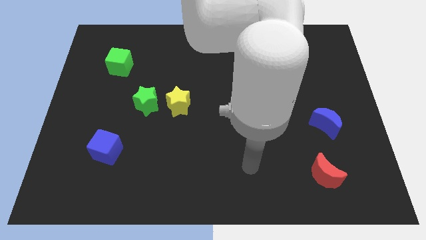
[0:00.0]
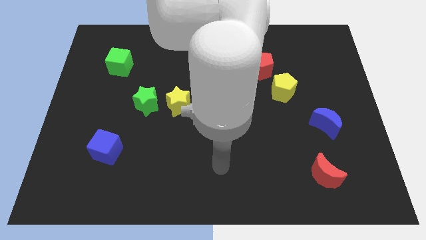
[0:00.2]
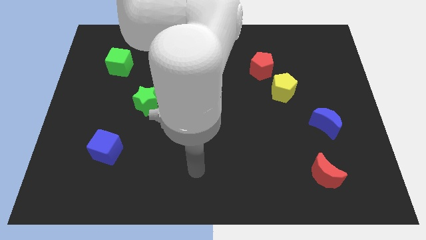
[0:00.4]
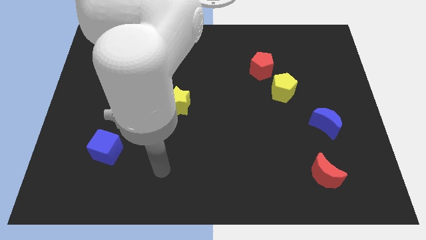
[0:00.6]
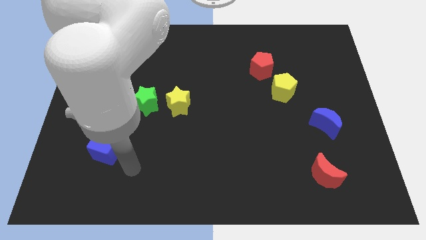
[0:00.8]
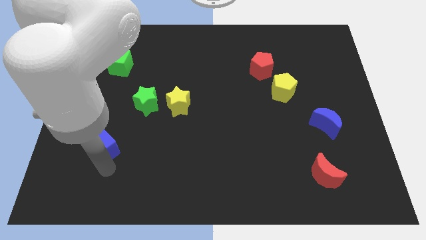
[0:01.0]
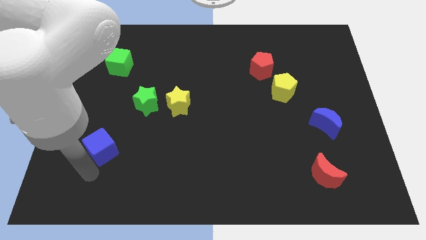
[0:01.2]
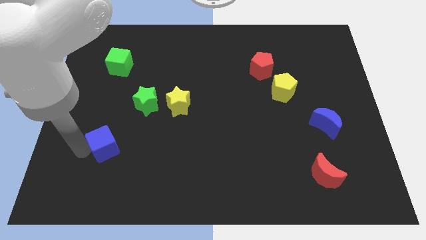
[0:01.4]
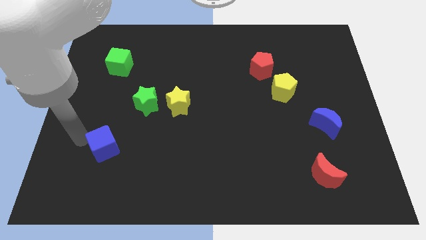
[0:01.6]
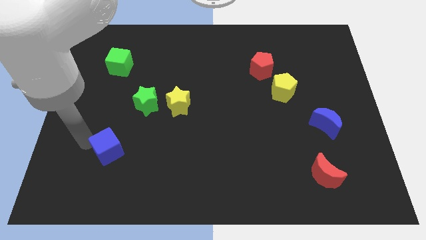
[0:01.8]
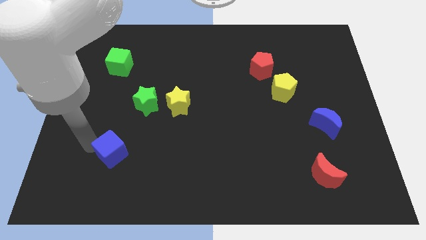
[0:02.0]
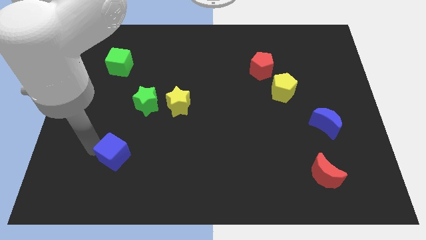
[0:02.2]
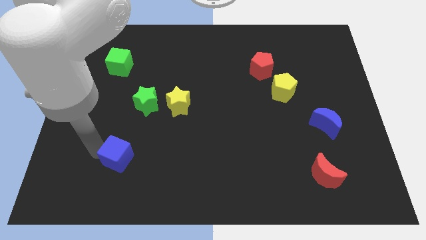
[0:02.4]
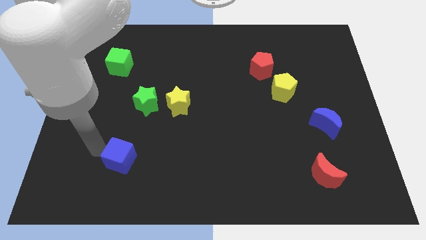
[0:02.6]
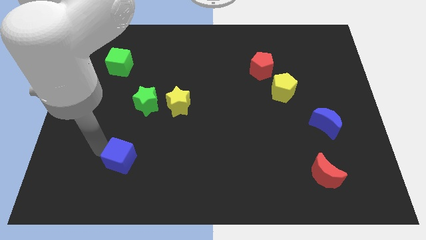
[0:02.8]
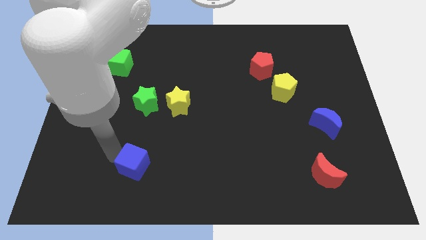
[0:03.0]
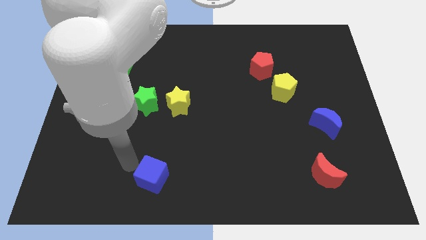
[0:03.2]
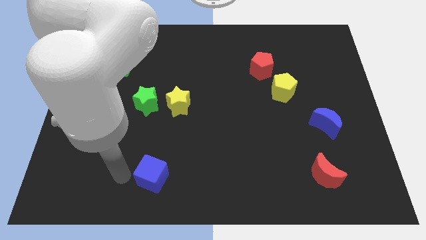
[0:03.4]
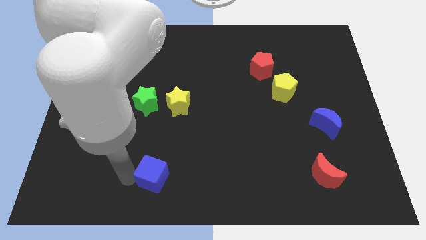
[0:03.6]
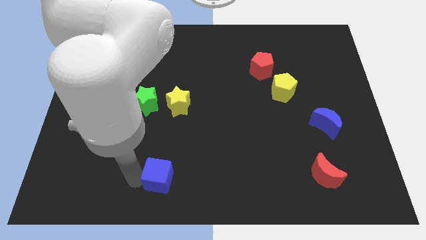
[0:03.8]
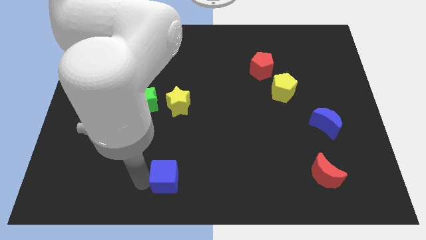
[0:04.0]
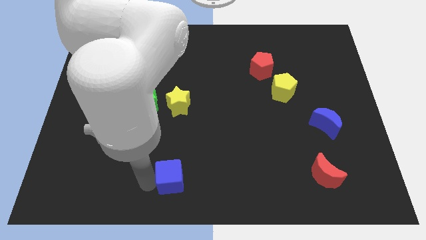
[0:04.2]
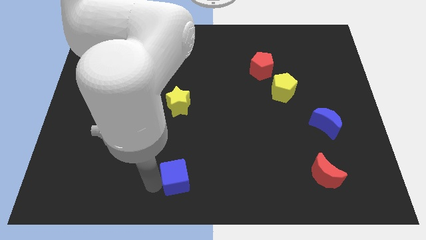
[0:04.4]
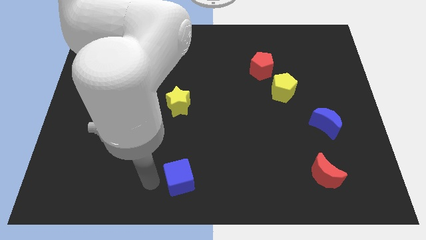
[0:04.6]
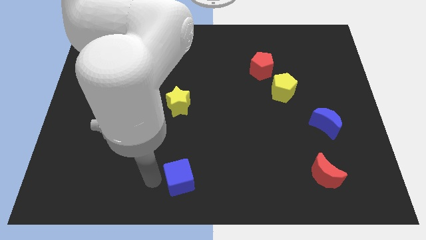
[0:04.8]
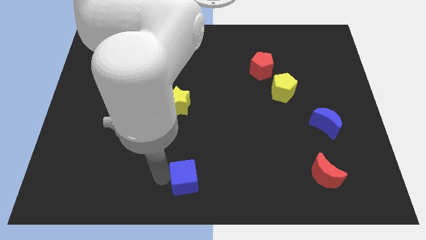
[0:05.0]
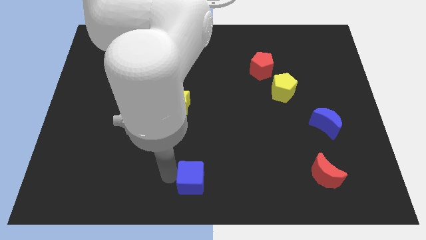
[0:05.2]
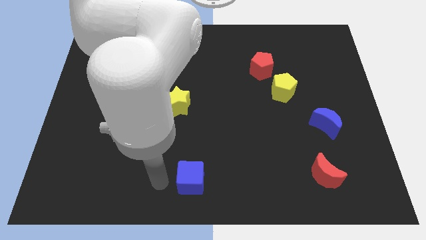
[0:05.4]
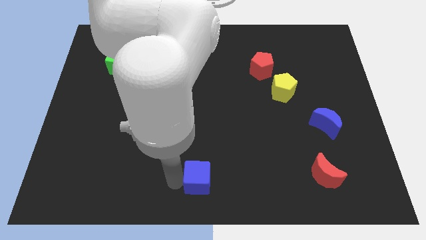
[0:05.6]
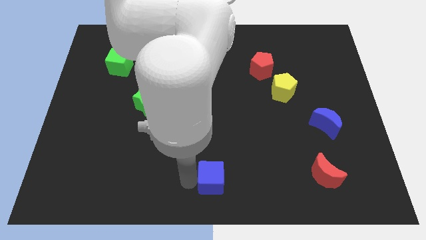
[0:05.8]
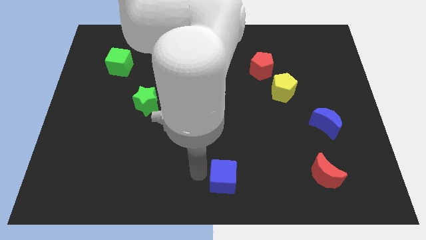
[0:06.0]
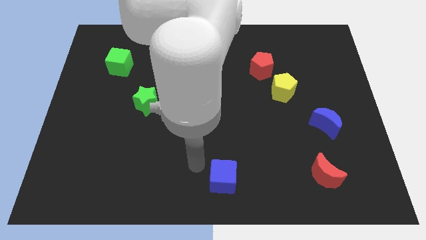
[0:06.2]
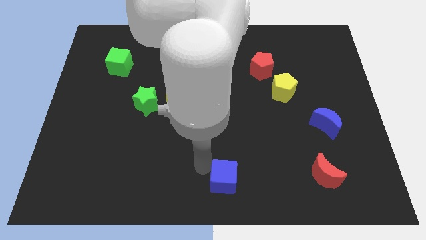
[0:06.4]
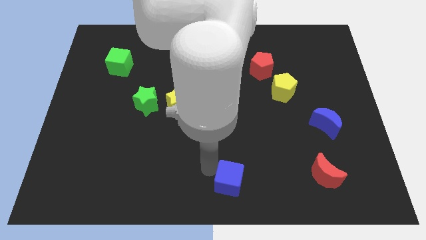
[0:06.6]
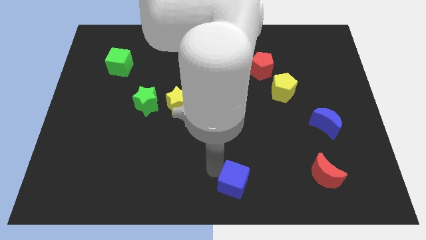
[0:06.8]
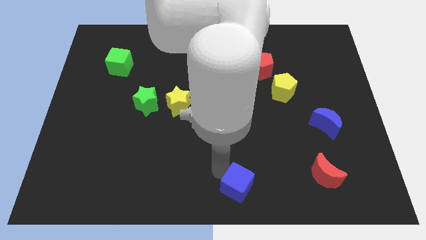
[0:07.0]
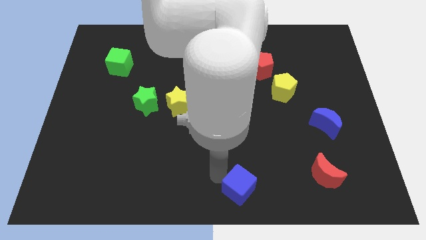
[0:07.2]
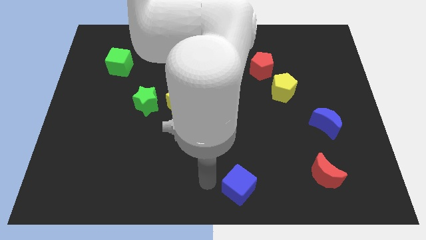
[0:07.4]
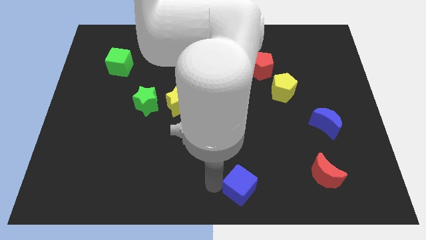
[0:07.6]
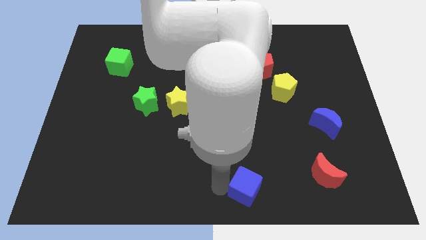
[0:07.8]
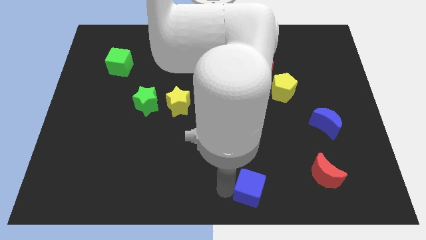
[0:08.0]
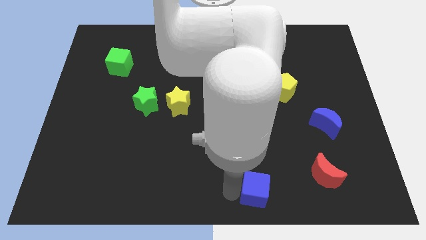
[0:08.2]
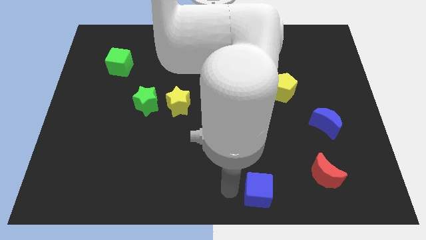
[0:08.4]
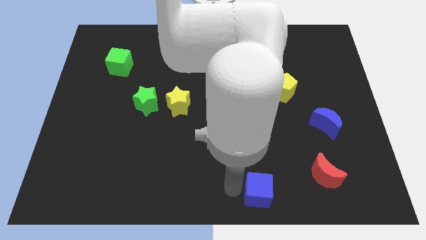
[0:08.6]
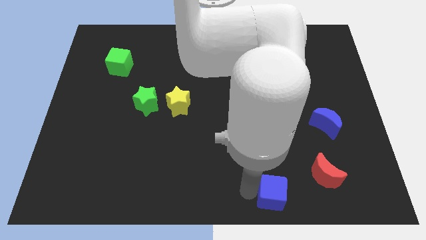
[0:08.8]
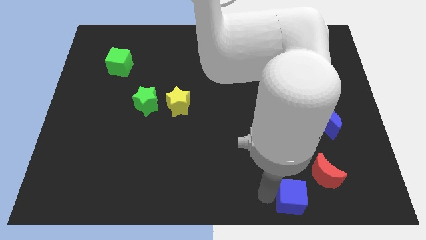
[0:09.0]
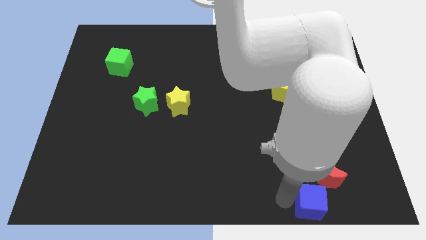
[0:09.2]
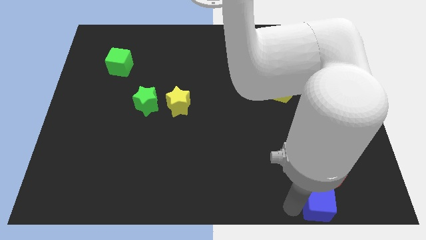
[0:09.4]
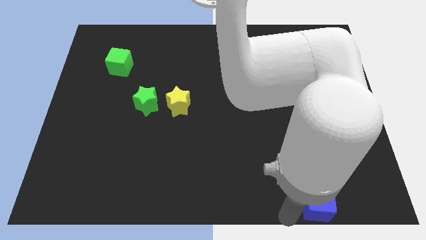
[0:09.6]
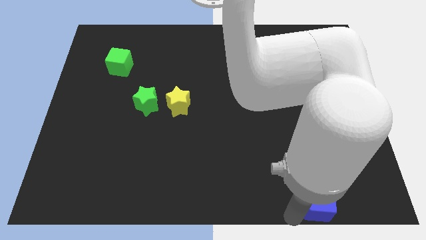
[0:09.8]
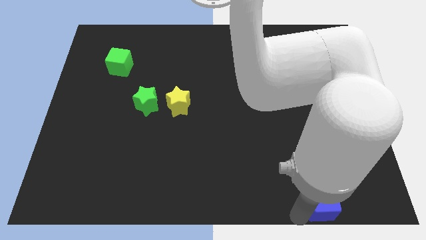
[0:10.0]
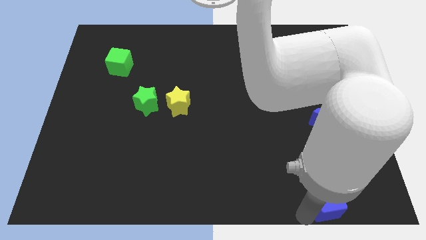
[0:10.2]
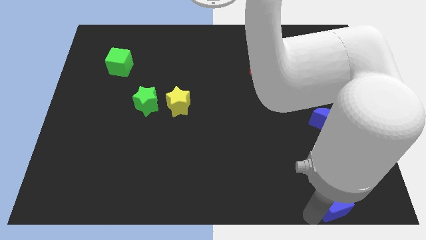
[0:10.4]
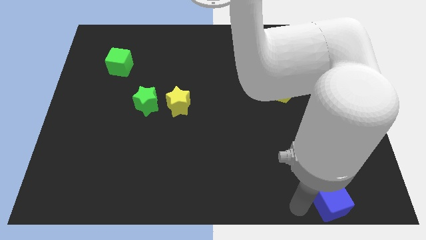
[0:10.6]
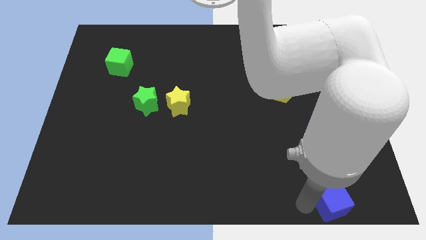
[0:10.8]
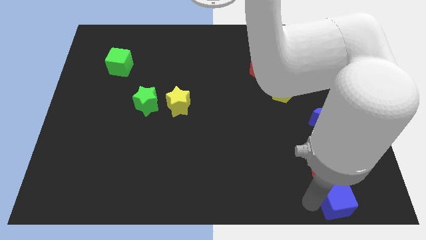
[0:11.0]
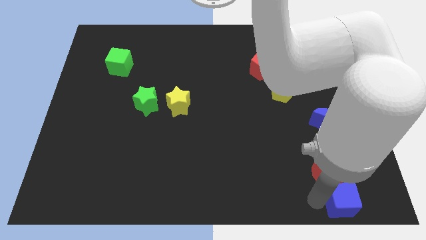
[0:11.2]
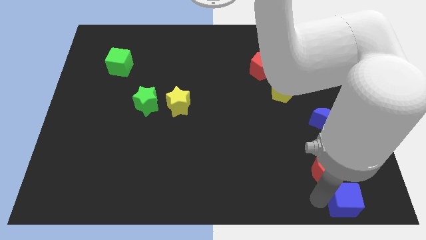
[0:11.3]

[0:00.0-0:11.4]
push the blue cube to the bottom right

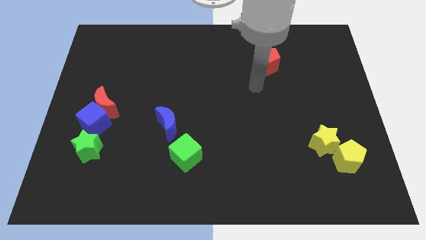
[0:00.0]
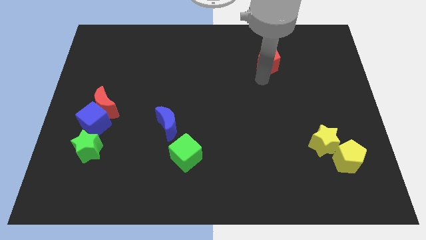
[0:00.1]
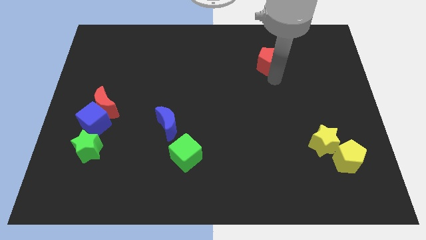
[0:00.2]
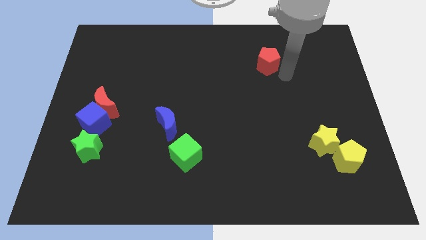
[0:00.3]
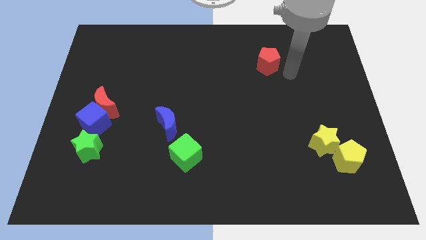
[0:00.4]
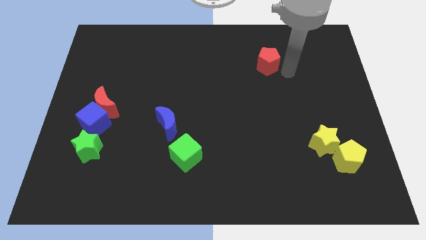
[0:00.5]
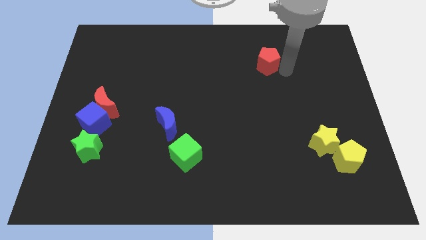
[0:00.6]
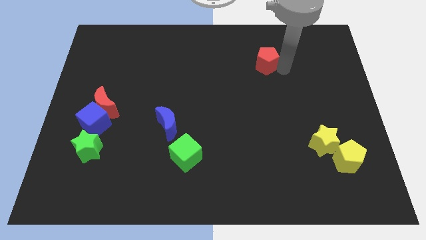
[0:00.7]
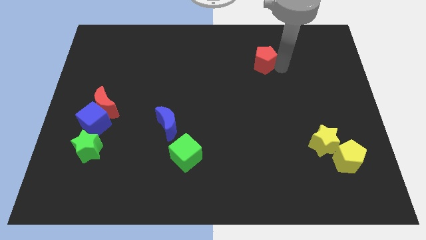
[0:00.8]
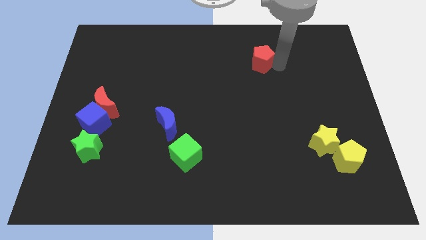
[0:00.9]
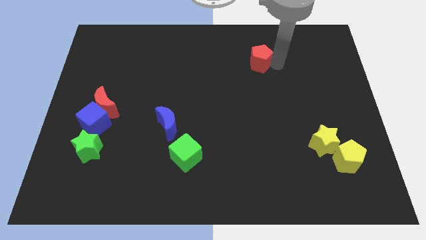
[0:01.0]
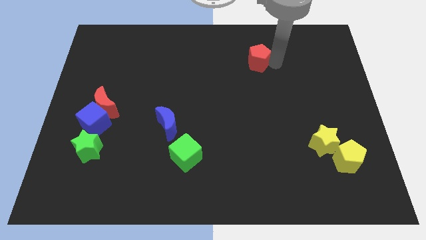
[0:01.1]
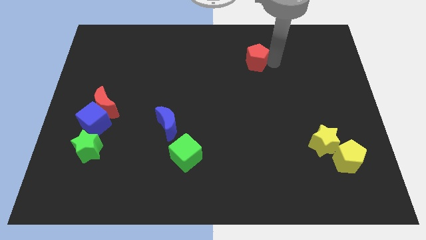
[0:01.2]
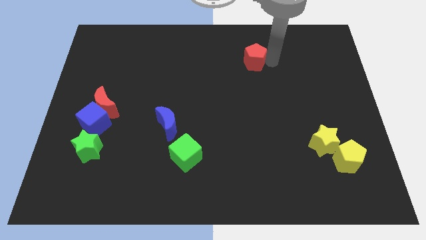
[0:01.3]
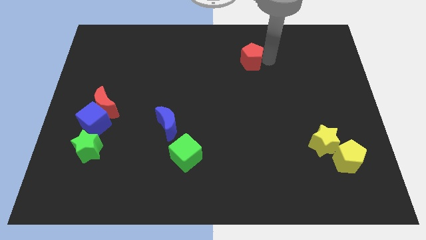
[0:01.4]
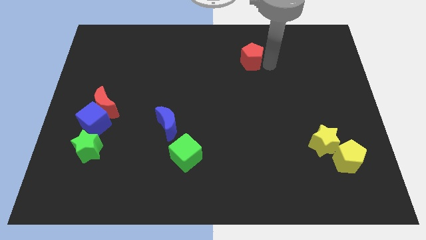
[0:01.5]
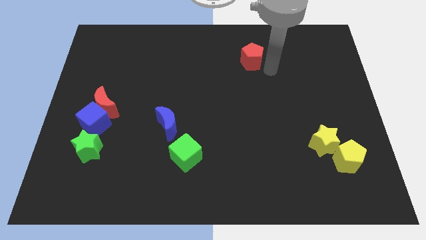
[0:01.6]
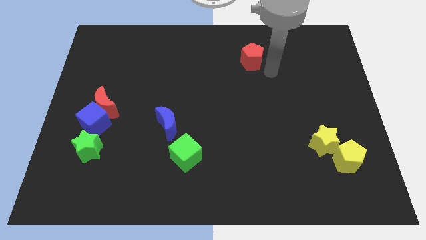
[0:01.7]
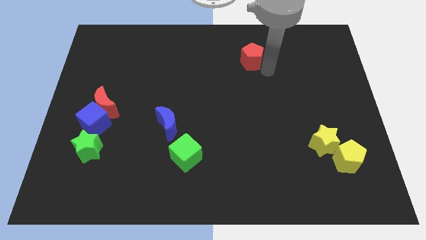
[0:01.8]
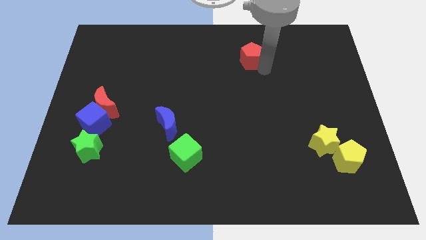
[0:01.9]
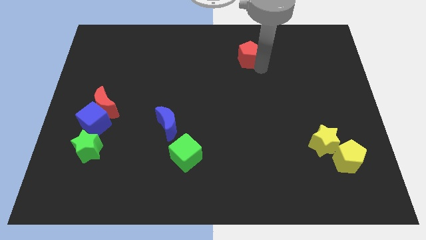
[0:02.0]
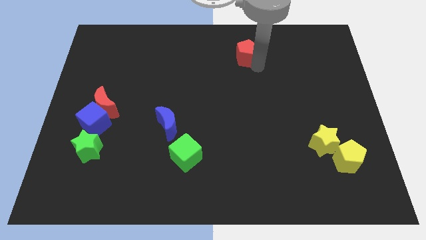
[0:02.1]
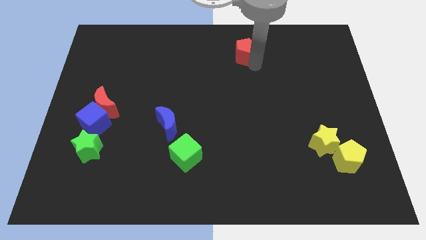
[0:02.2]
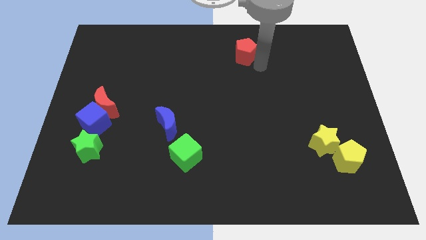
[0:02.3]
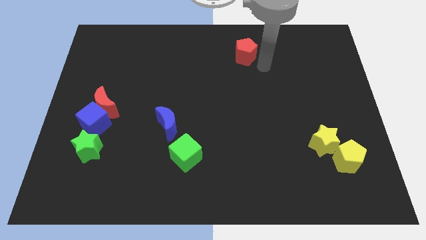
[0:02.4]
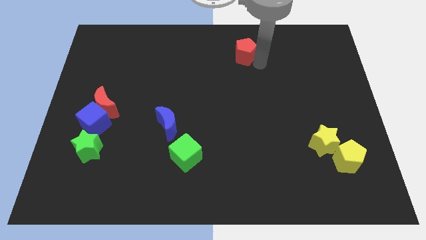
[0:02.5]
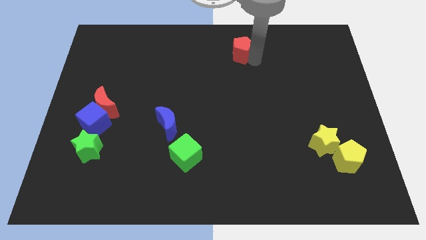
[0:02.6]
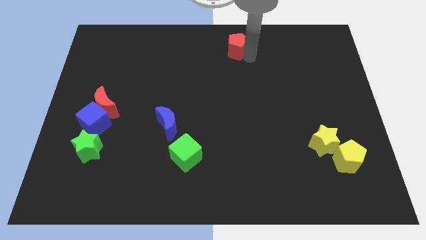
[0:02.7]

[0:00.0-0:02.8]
push the red pentagon to the top side
